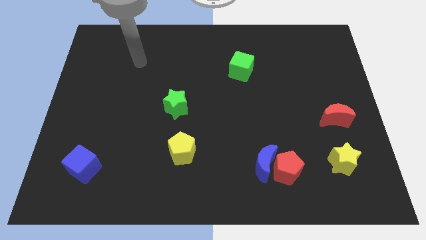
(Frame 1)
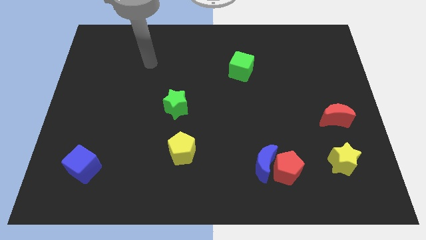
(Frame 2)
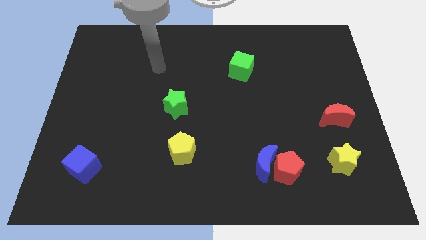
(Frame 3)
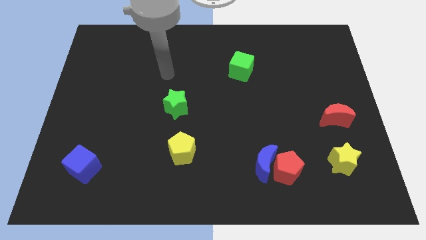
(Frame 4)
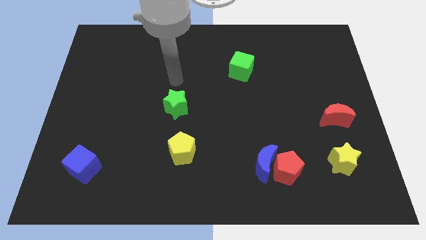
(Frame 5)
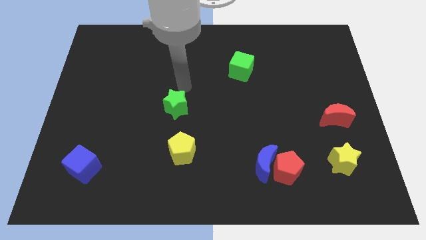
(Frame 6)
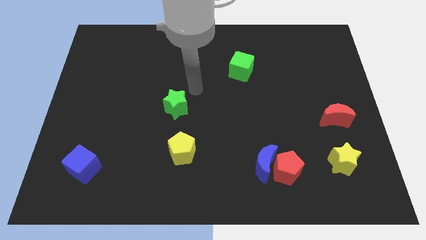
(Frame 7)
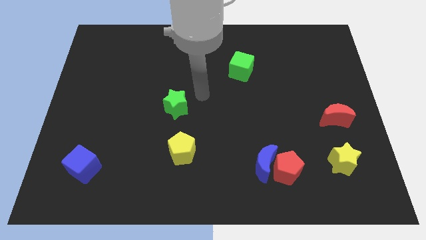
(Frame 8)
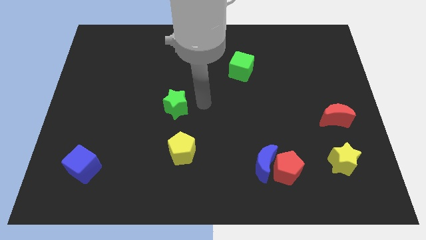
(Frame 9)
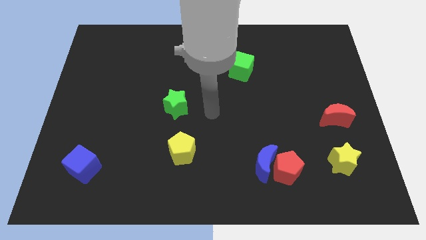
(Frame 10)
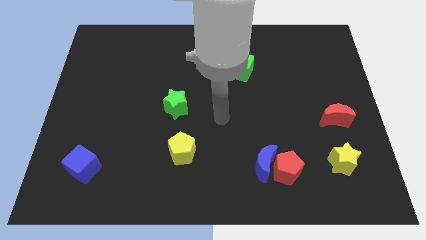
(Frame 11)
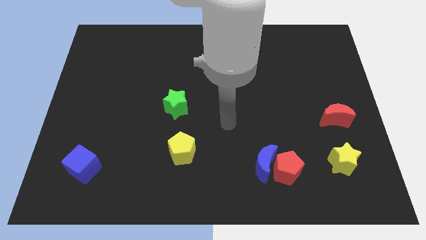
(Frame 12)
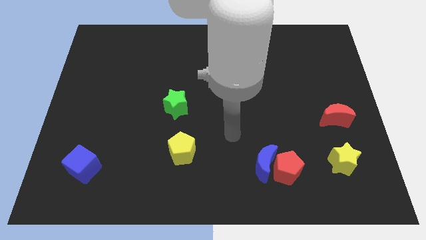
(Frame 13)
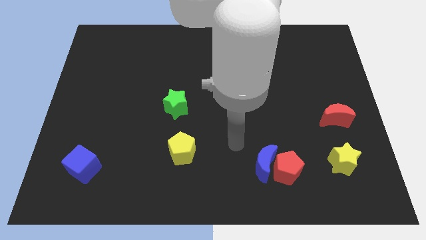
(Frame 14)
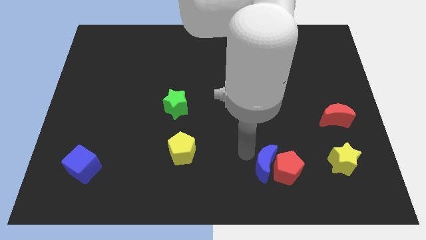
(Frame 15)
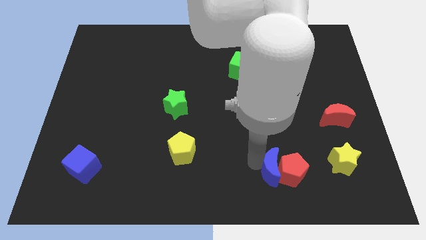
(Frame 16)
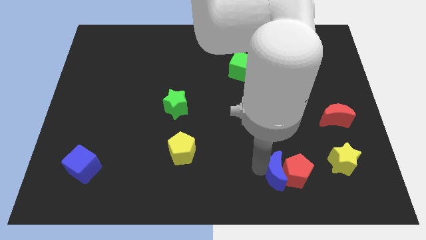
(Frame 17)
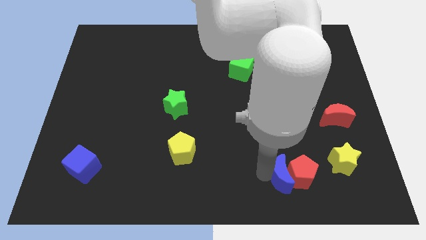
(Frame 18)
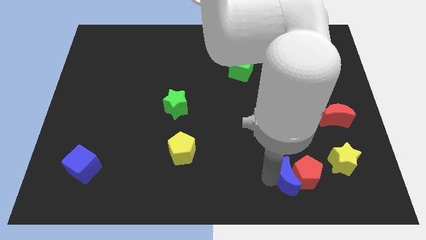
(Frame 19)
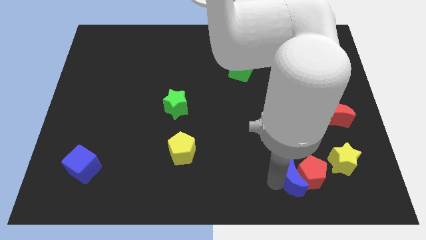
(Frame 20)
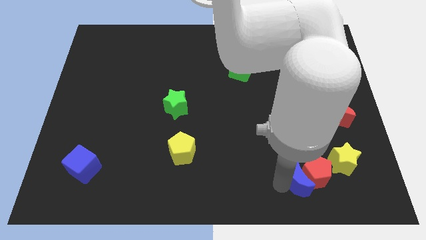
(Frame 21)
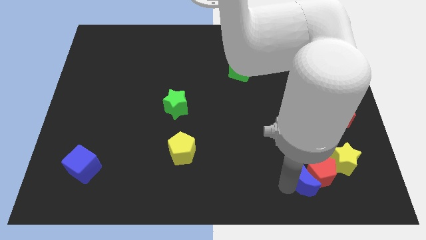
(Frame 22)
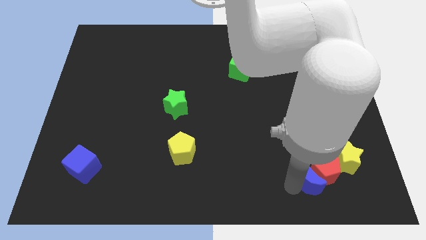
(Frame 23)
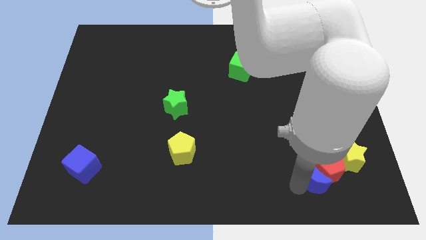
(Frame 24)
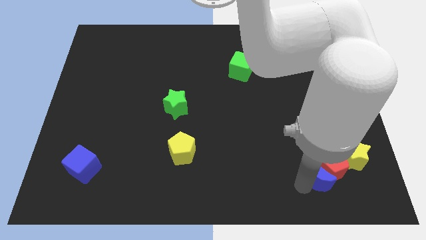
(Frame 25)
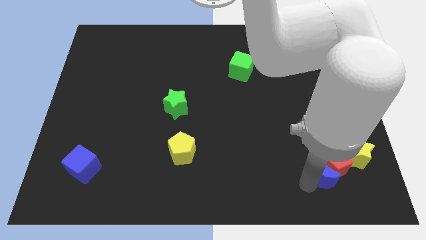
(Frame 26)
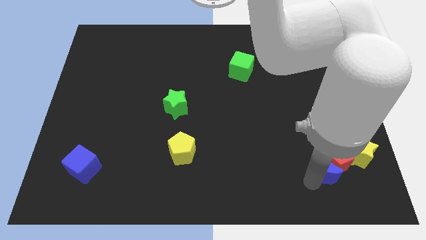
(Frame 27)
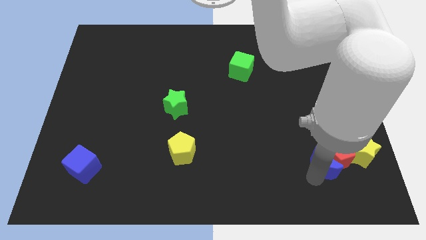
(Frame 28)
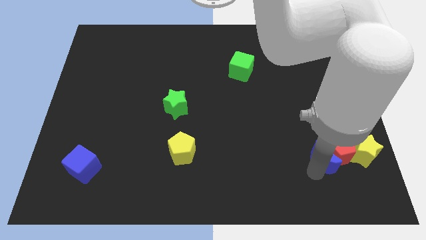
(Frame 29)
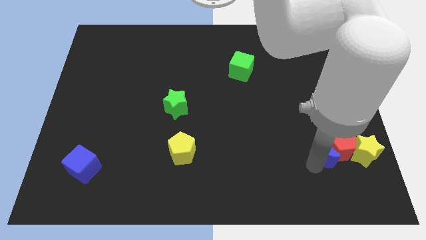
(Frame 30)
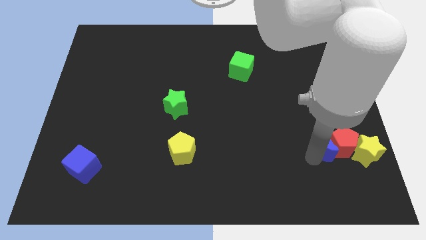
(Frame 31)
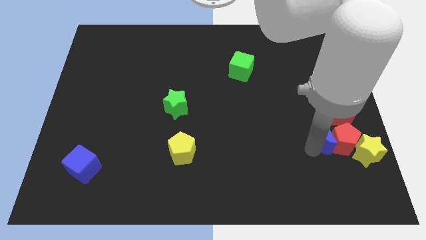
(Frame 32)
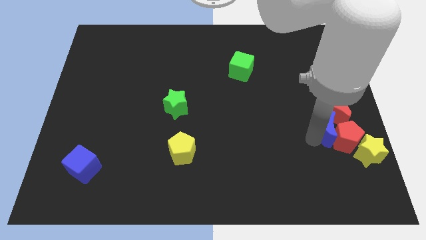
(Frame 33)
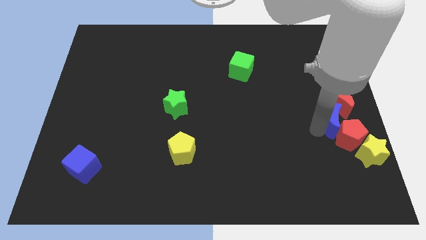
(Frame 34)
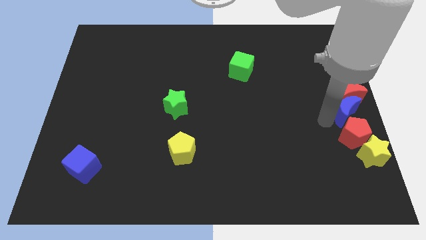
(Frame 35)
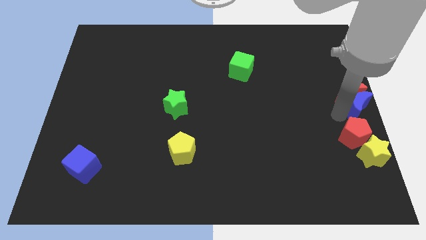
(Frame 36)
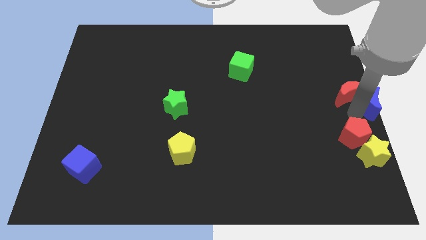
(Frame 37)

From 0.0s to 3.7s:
move the red pentagon away from the blue moon

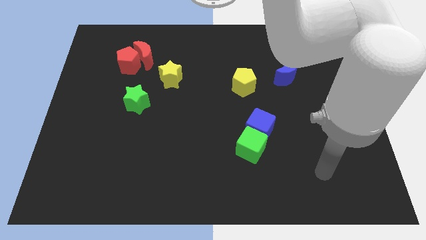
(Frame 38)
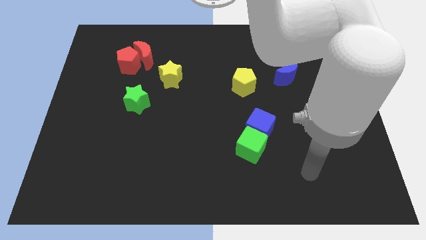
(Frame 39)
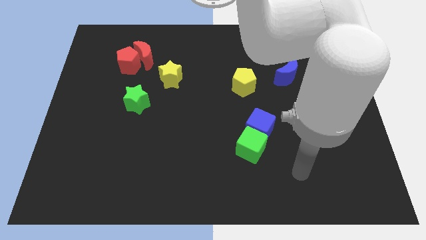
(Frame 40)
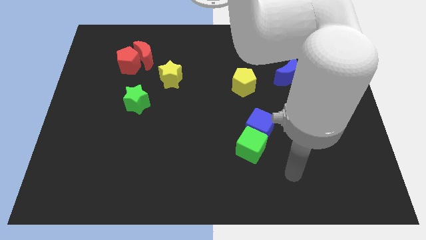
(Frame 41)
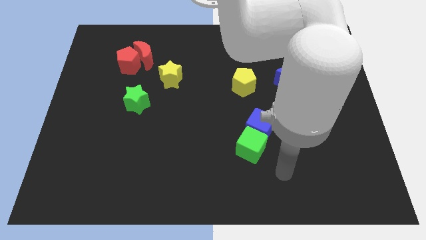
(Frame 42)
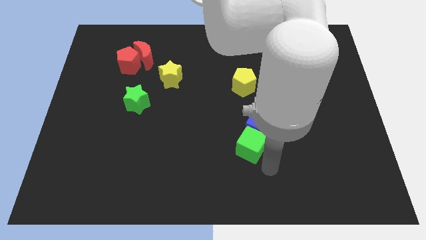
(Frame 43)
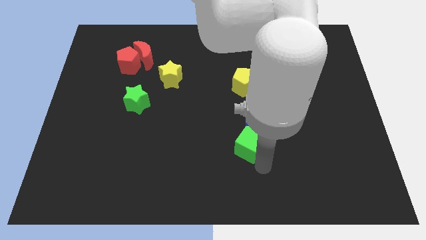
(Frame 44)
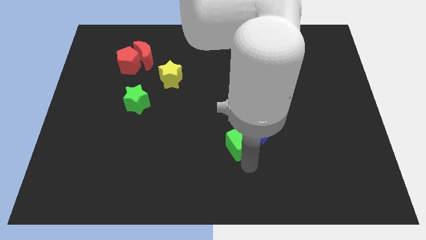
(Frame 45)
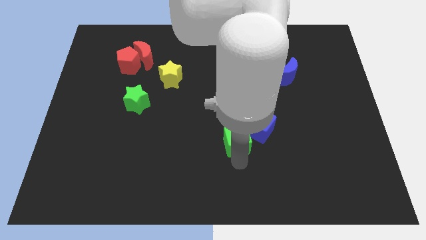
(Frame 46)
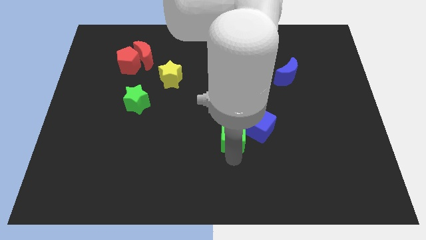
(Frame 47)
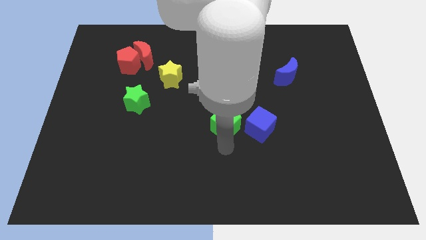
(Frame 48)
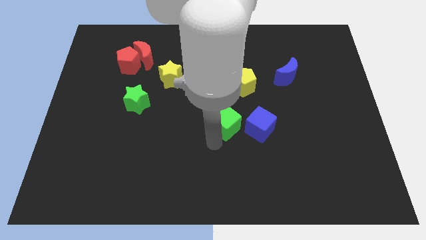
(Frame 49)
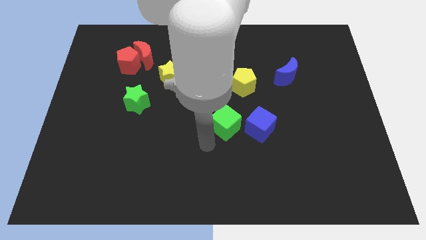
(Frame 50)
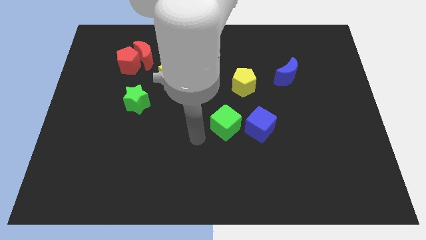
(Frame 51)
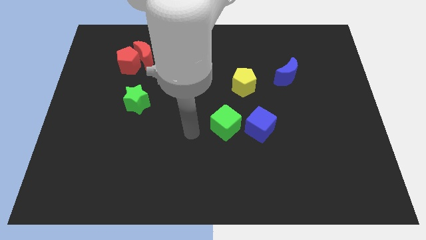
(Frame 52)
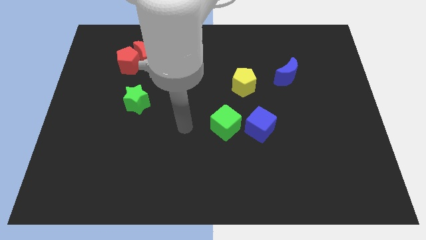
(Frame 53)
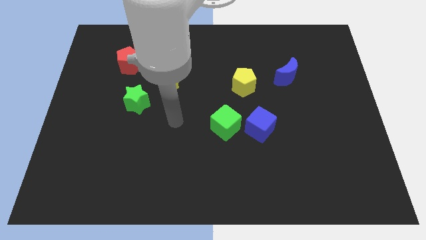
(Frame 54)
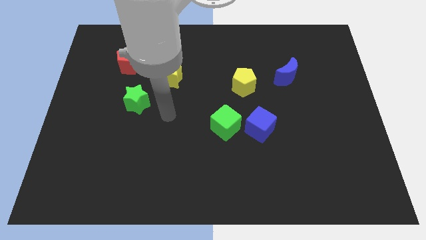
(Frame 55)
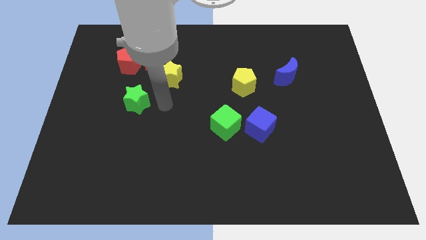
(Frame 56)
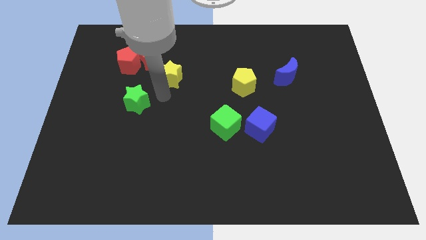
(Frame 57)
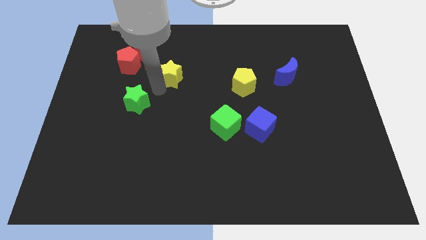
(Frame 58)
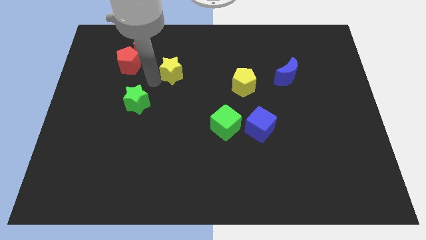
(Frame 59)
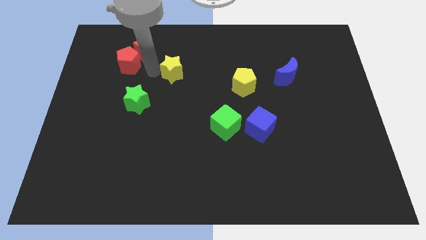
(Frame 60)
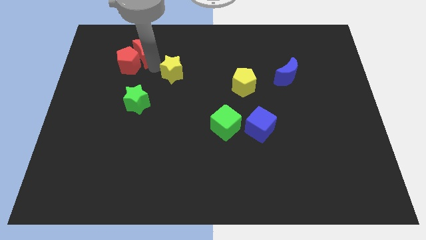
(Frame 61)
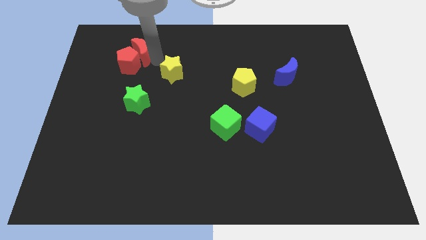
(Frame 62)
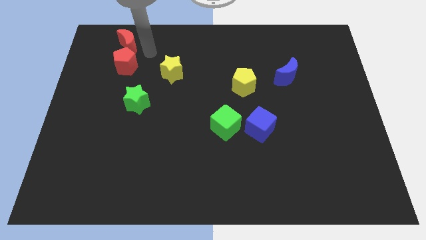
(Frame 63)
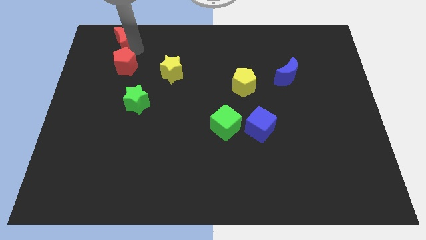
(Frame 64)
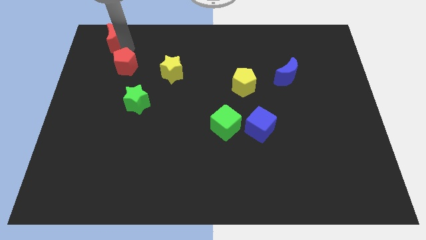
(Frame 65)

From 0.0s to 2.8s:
pull the red pentagon apart from the red moon

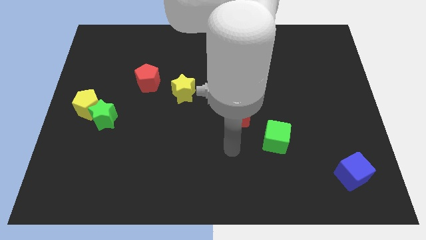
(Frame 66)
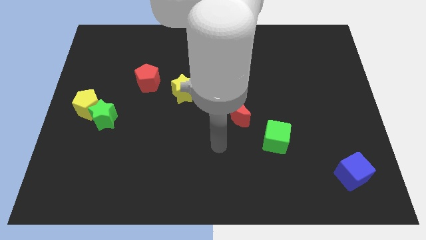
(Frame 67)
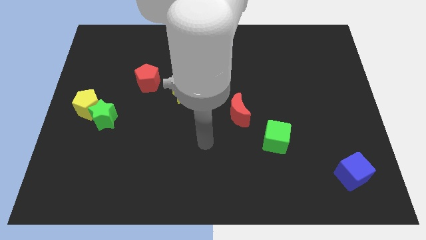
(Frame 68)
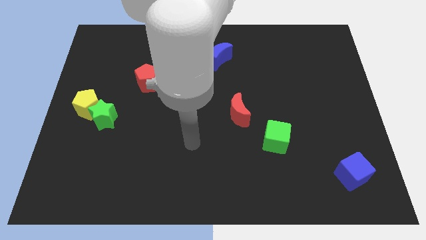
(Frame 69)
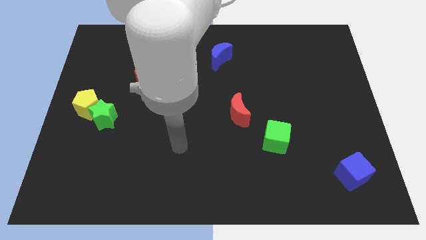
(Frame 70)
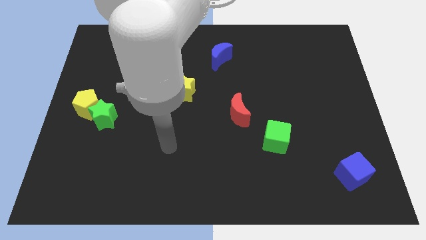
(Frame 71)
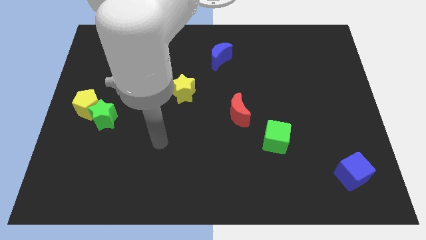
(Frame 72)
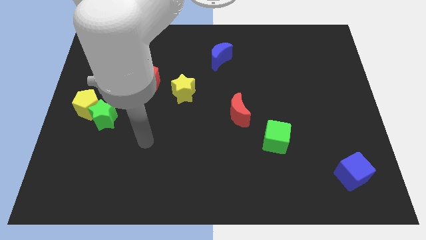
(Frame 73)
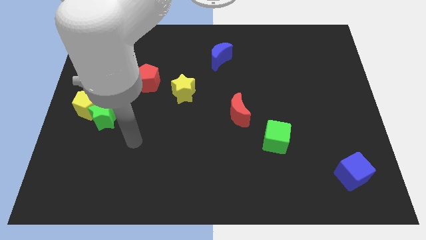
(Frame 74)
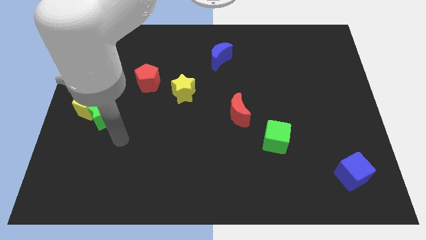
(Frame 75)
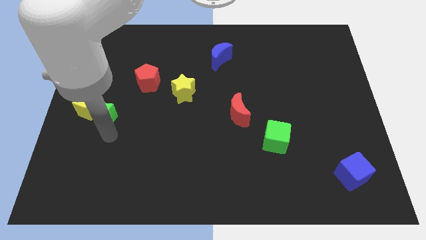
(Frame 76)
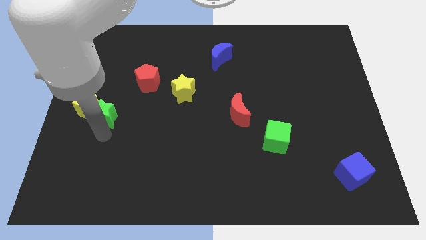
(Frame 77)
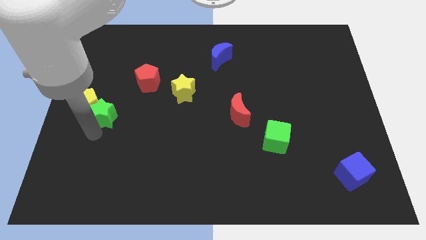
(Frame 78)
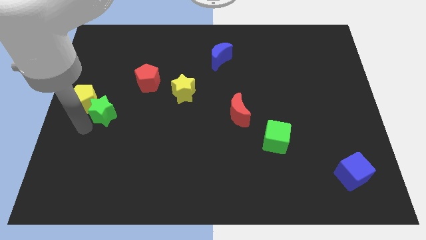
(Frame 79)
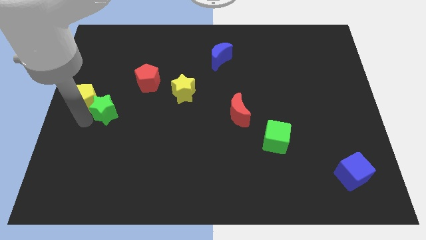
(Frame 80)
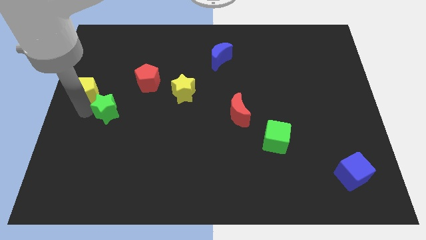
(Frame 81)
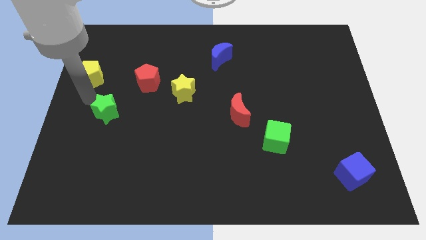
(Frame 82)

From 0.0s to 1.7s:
separate the green star from the yellow pentagon

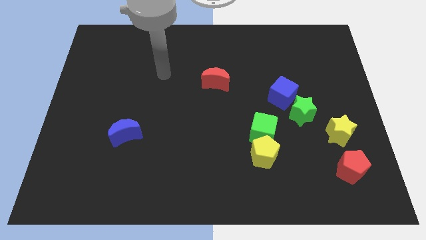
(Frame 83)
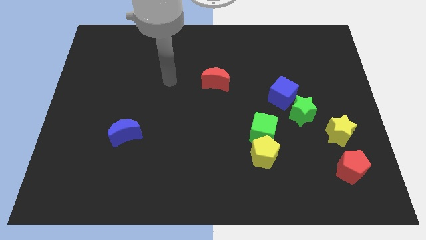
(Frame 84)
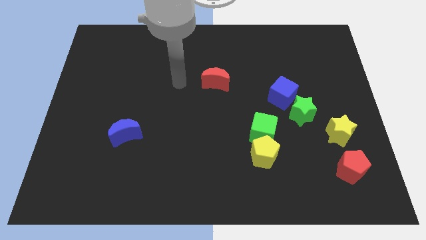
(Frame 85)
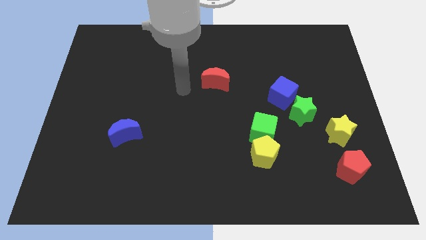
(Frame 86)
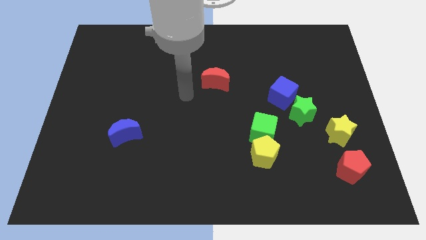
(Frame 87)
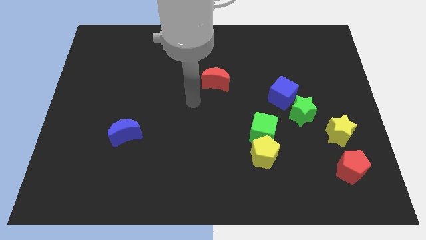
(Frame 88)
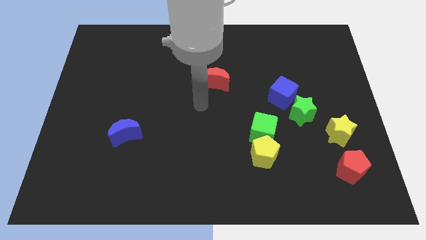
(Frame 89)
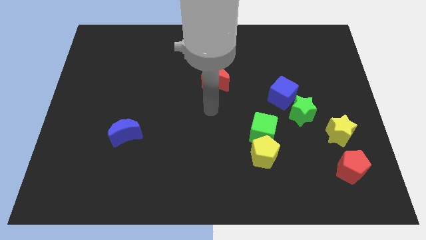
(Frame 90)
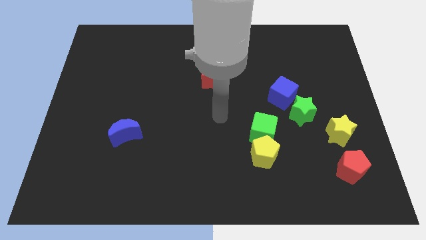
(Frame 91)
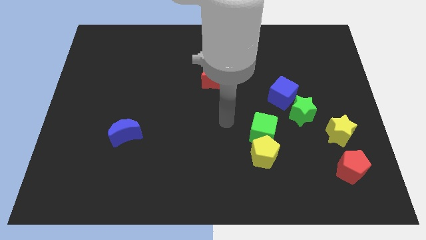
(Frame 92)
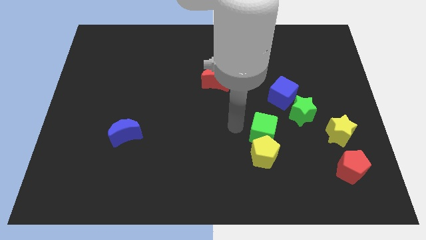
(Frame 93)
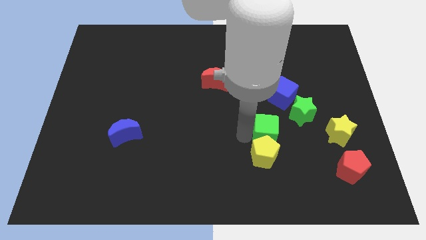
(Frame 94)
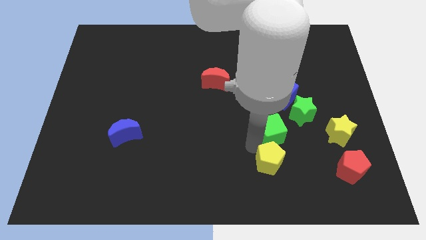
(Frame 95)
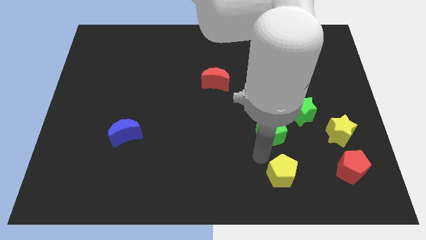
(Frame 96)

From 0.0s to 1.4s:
pull the green cube apart from the yellow pentagon
